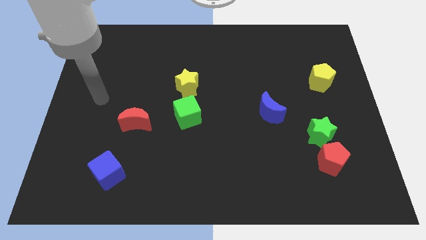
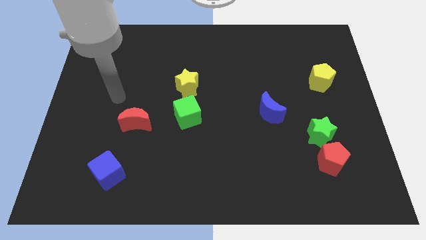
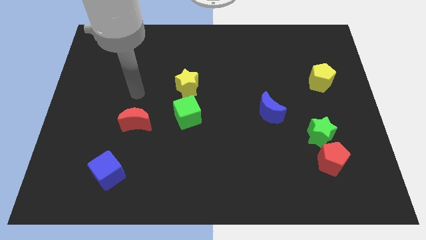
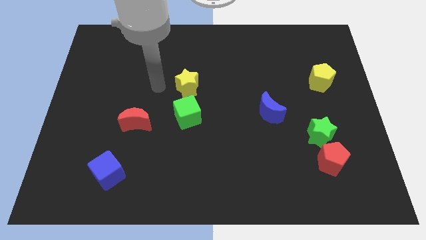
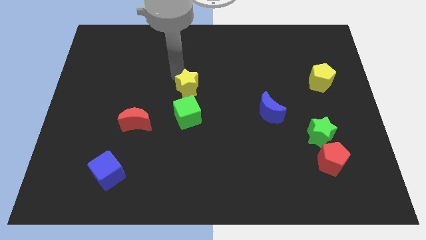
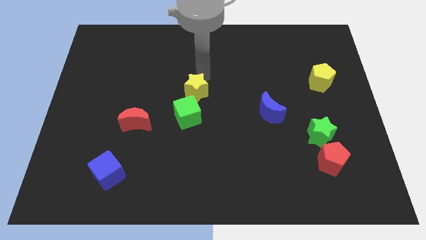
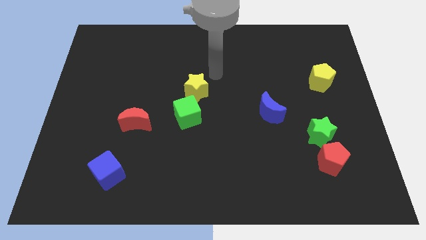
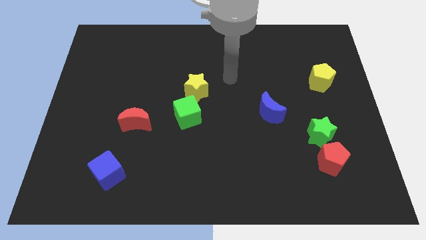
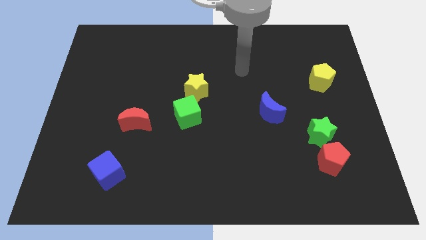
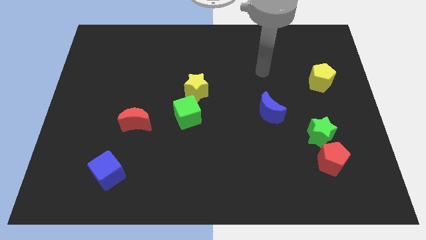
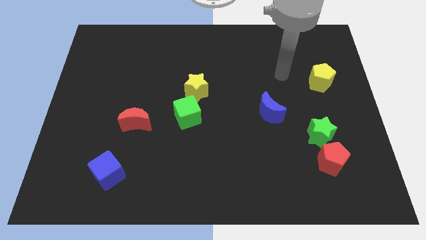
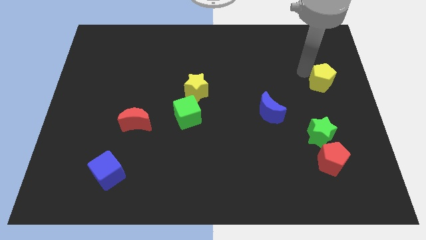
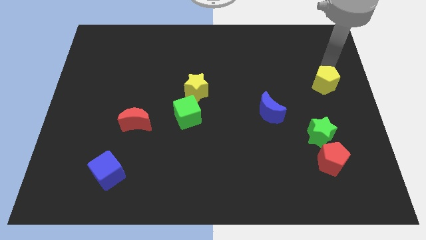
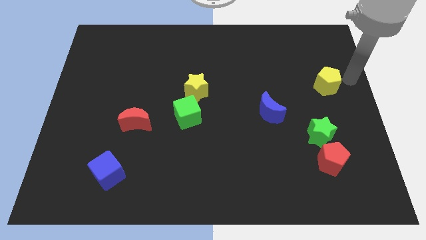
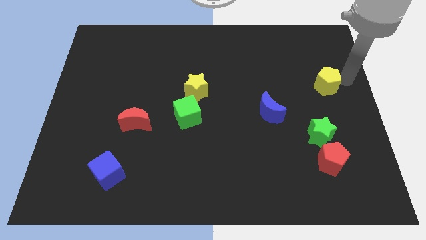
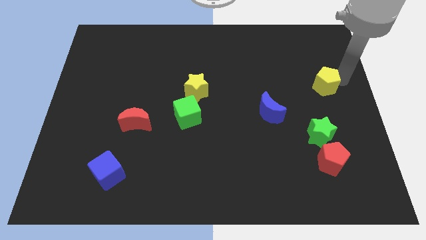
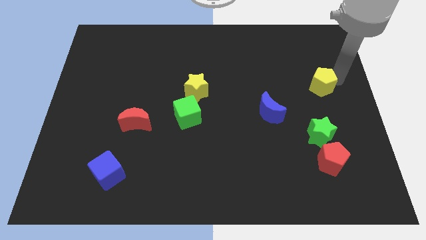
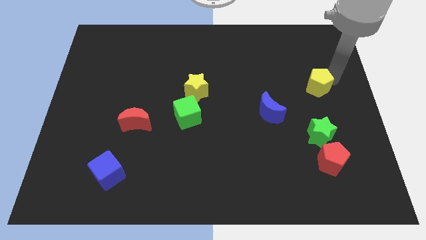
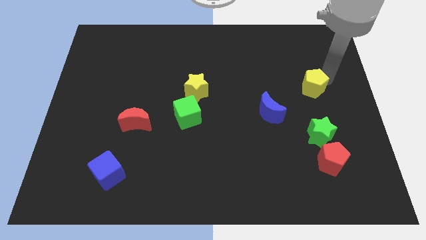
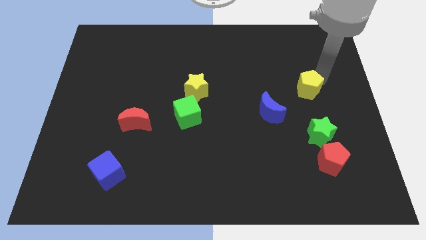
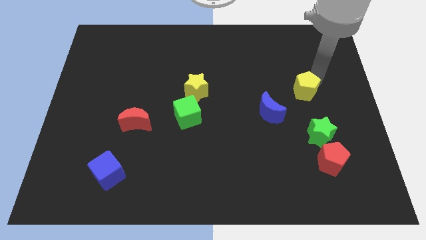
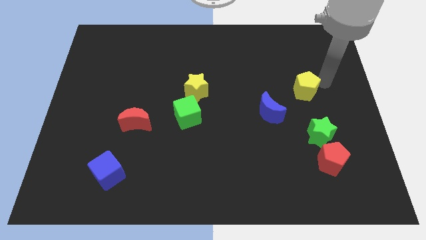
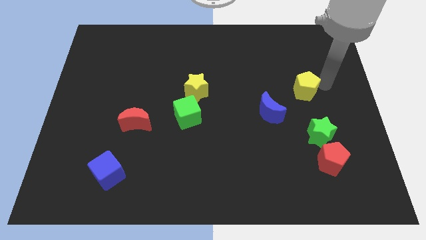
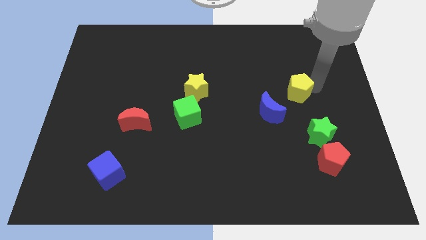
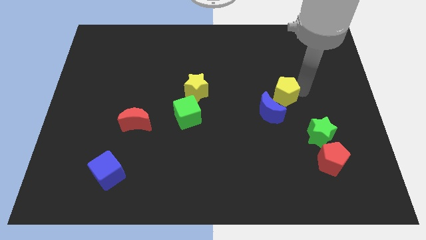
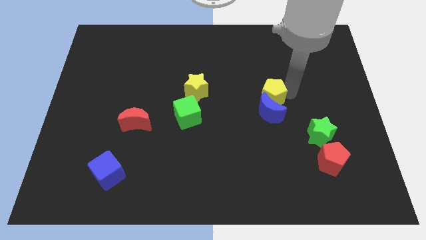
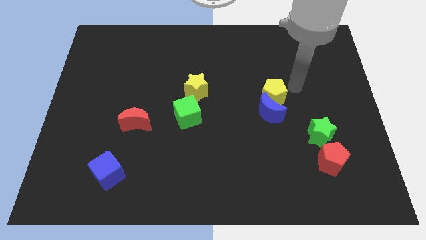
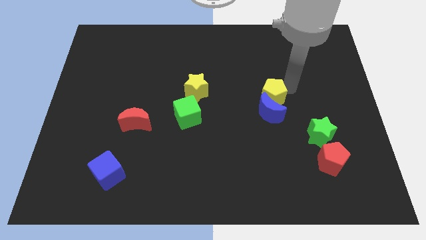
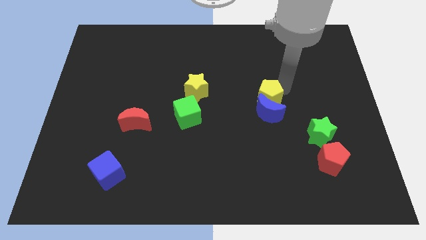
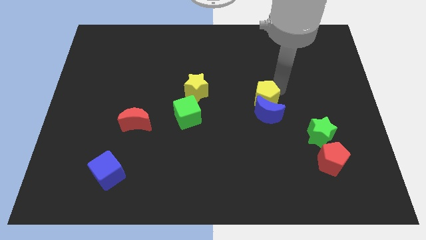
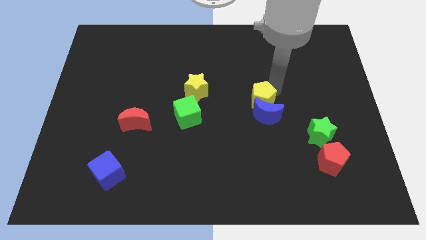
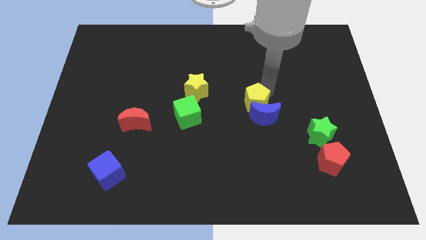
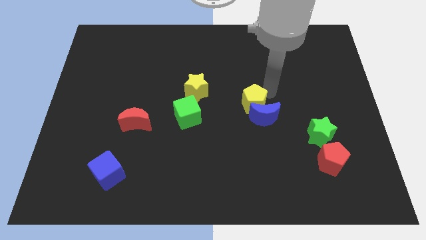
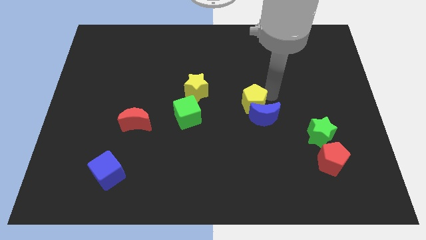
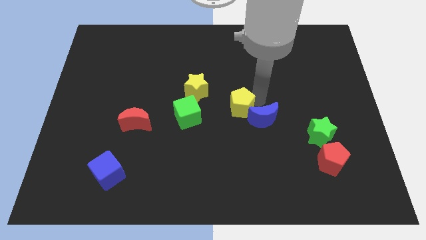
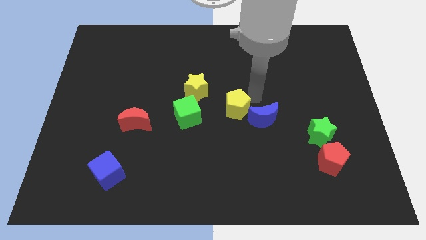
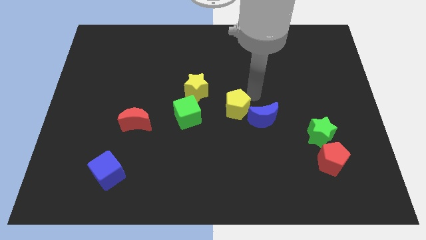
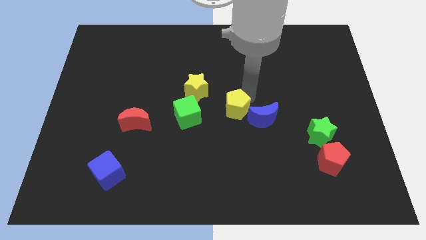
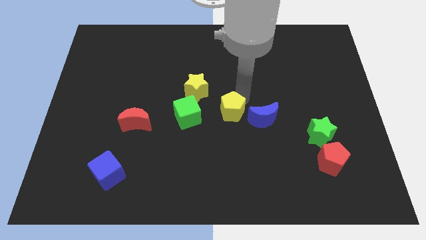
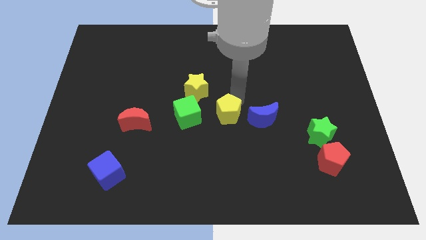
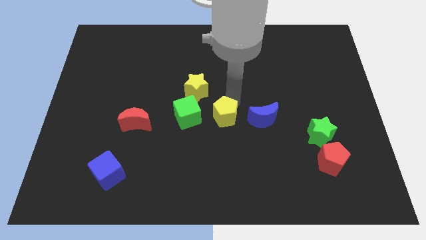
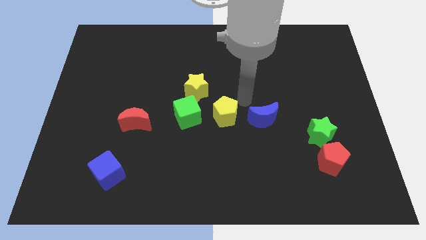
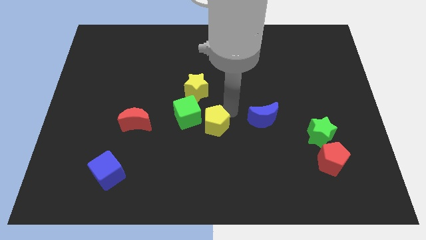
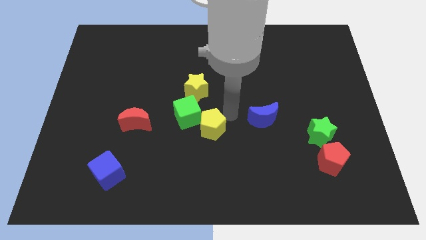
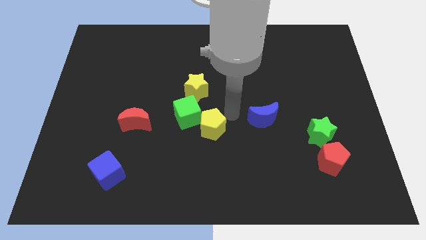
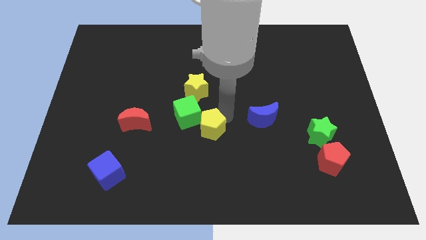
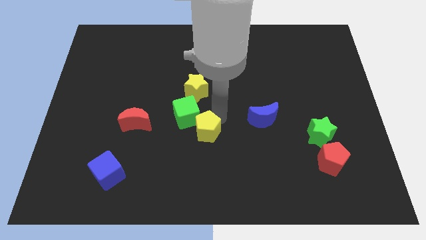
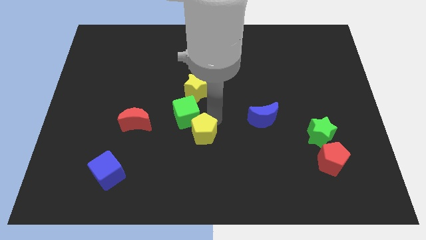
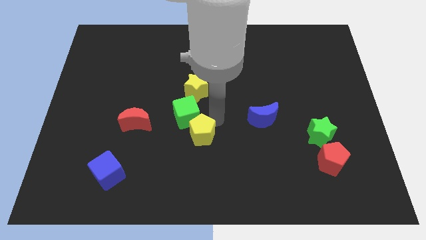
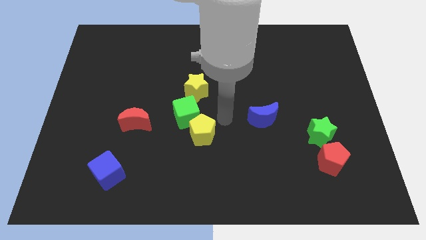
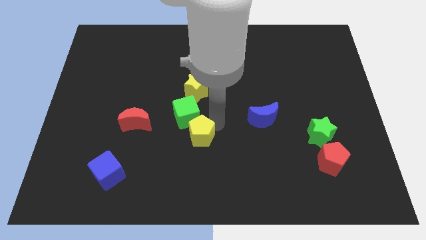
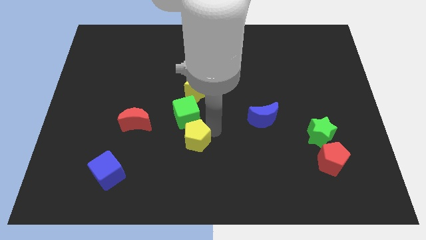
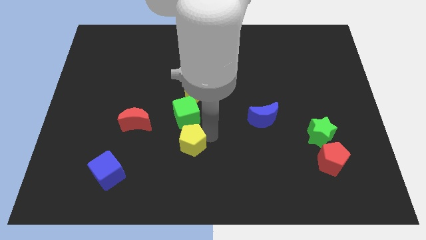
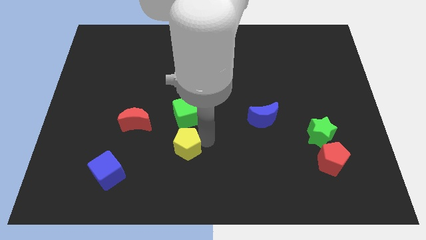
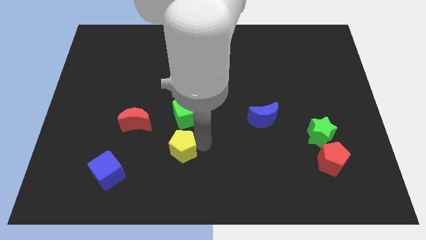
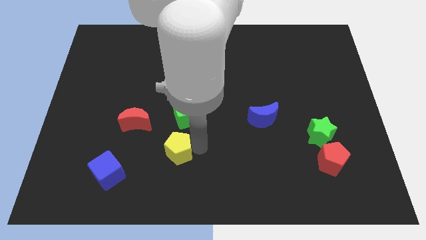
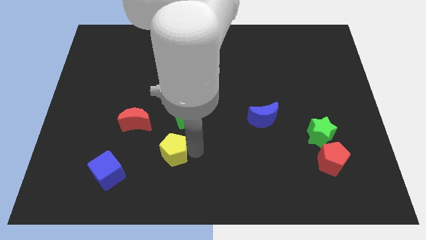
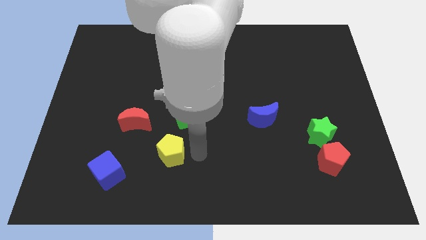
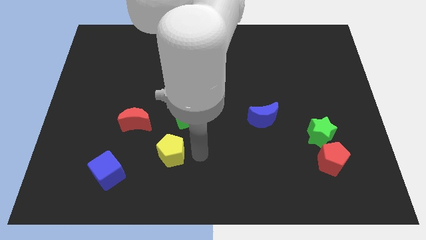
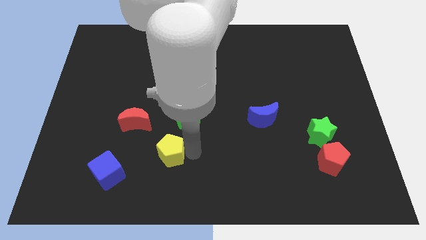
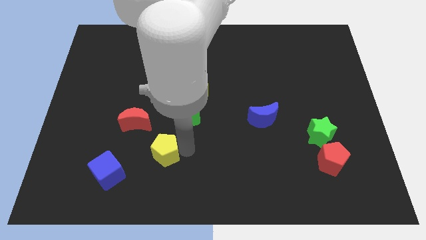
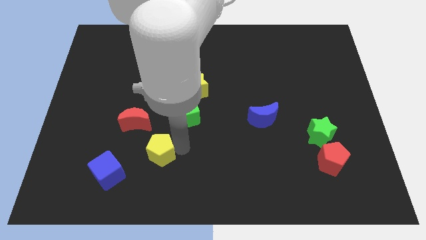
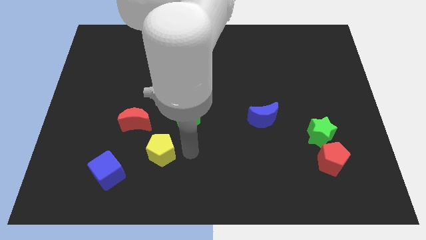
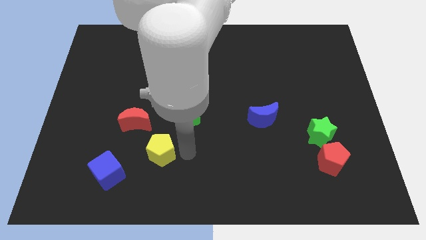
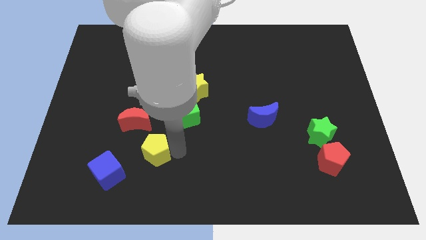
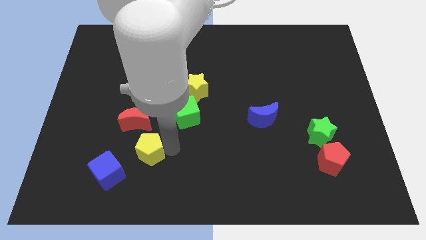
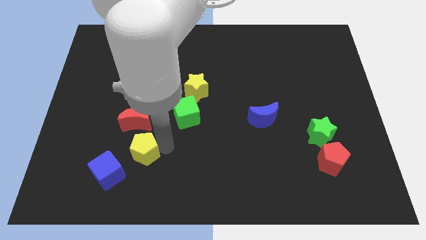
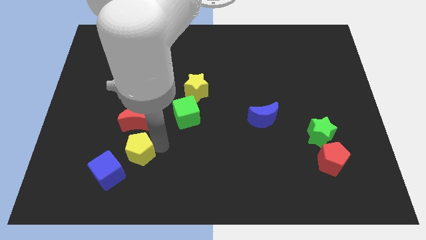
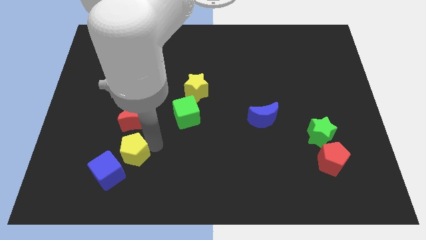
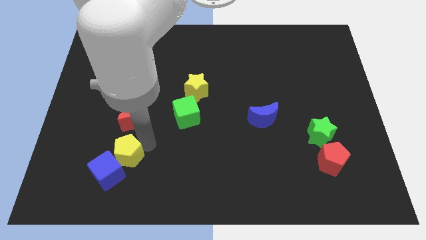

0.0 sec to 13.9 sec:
move the yellow pentagon towards the blue cube
